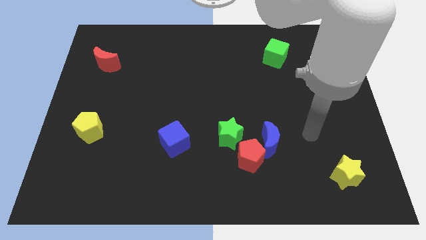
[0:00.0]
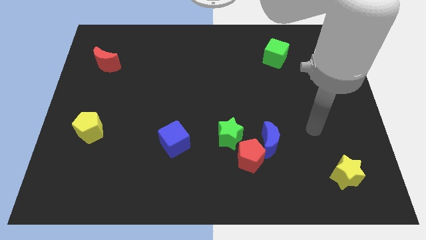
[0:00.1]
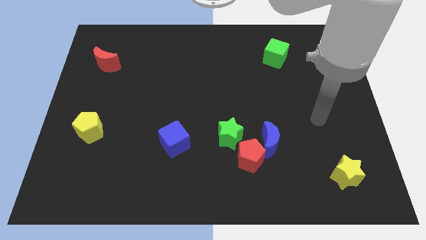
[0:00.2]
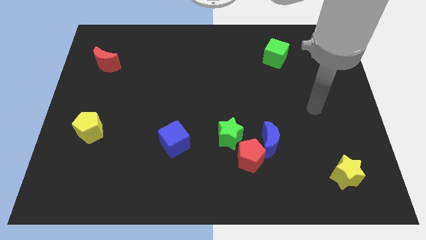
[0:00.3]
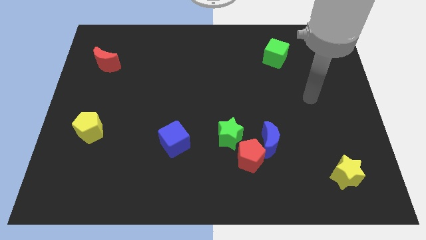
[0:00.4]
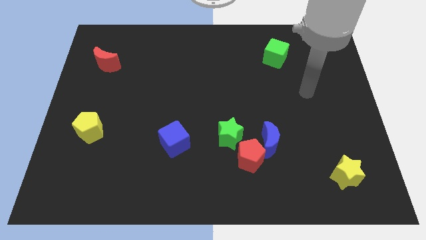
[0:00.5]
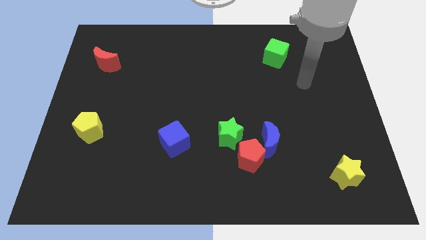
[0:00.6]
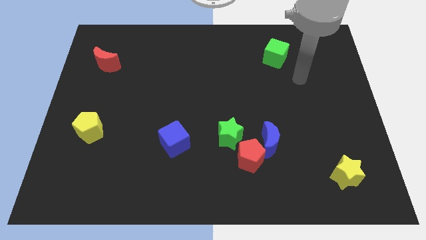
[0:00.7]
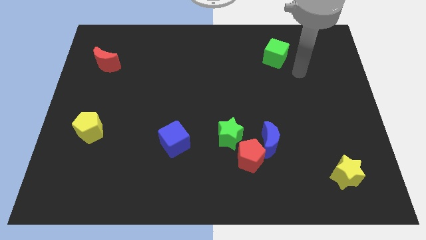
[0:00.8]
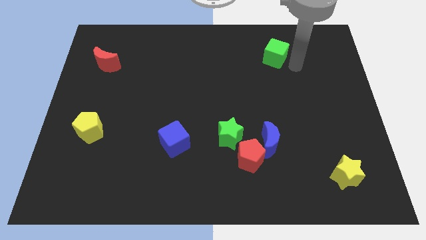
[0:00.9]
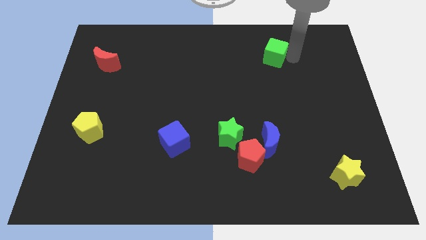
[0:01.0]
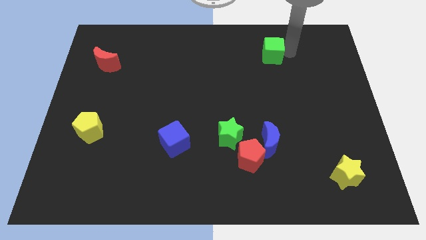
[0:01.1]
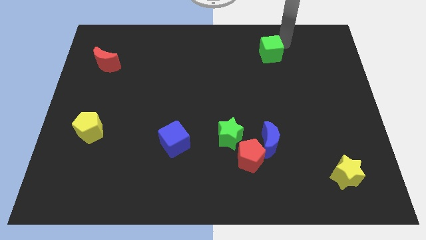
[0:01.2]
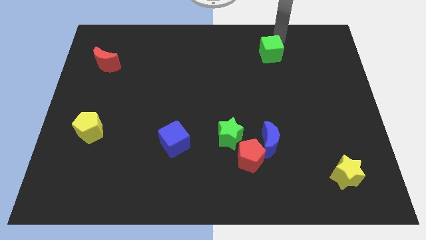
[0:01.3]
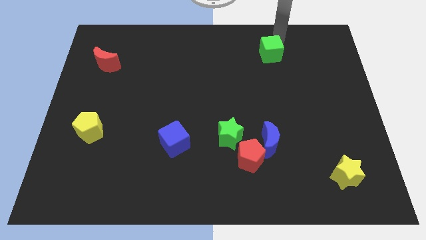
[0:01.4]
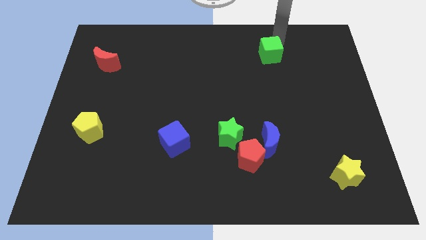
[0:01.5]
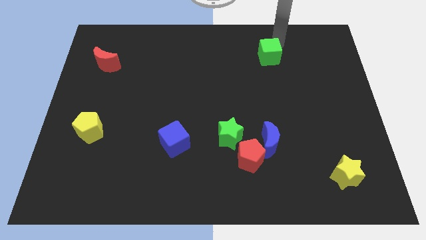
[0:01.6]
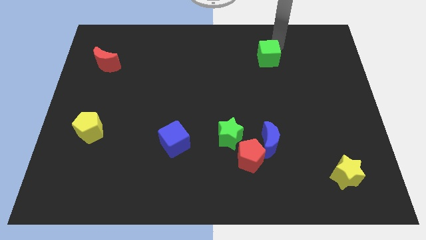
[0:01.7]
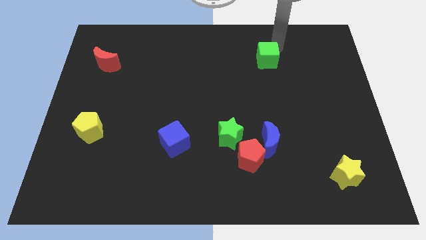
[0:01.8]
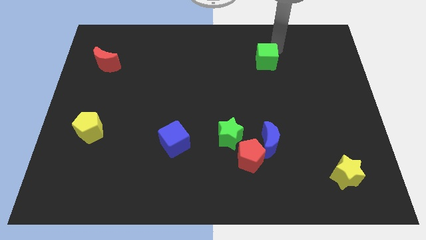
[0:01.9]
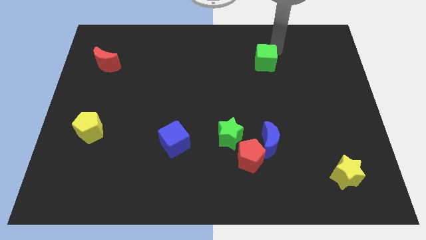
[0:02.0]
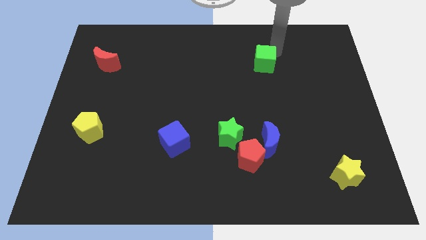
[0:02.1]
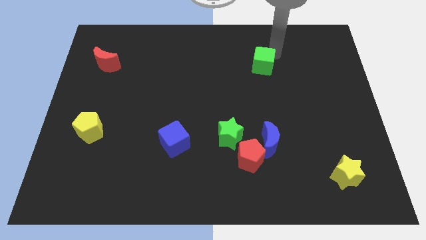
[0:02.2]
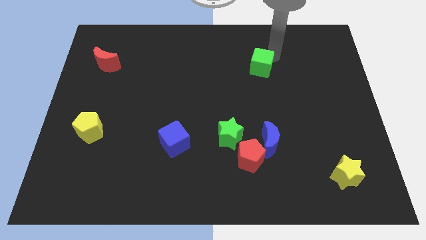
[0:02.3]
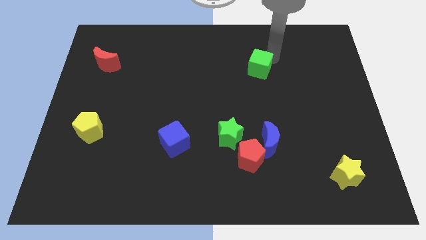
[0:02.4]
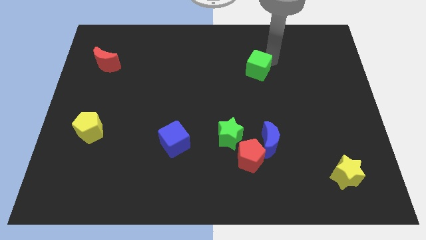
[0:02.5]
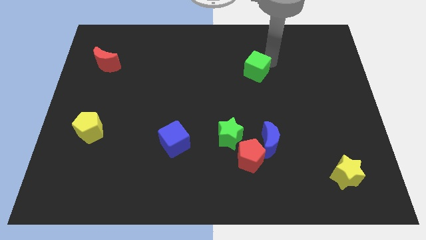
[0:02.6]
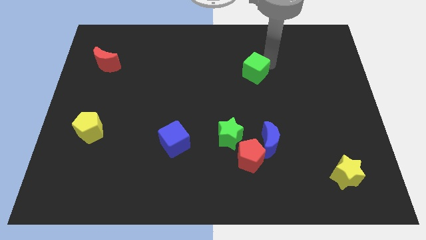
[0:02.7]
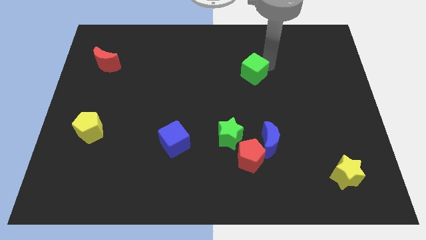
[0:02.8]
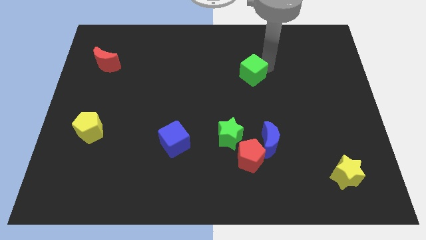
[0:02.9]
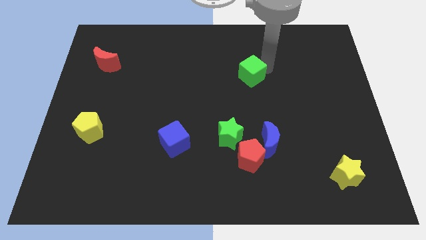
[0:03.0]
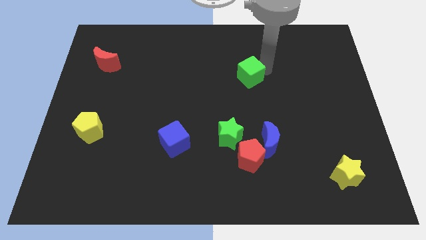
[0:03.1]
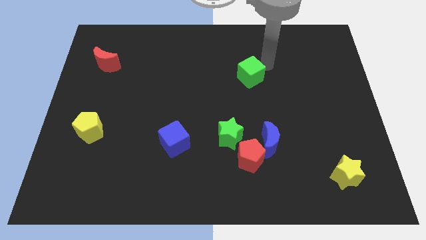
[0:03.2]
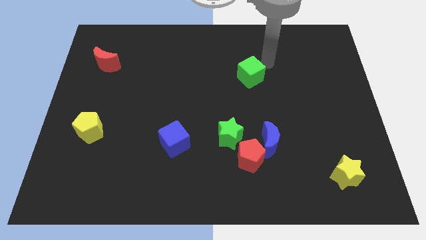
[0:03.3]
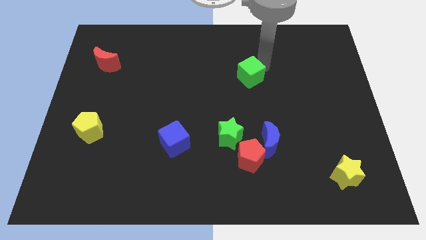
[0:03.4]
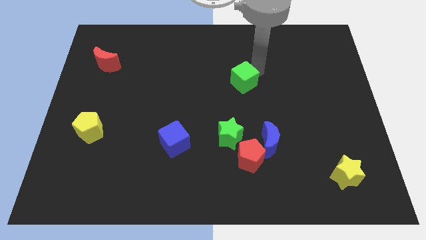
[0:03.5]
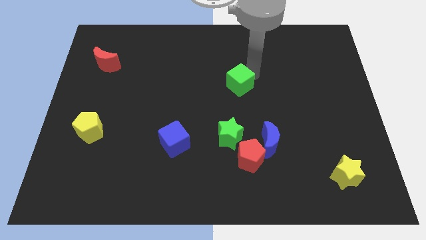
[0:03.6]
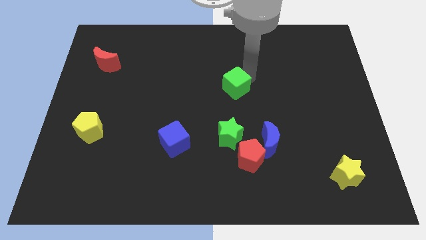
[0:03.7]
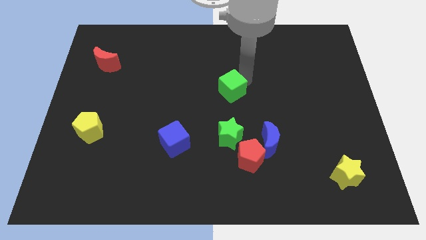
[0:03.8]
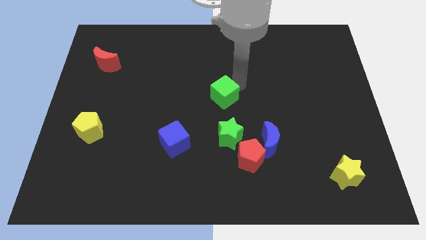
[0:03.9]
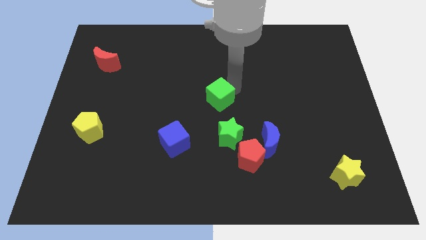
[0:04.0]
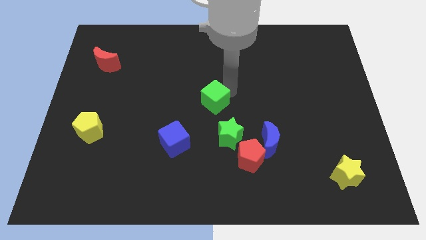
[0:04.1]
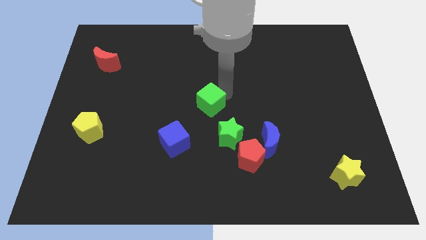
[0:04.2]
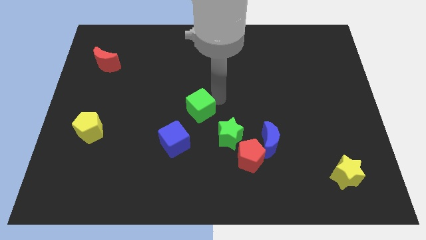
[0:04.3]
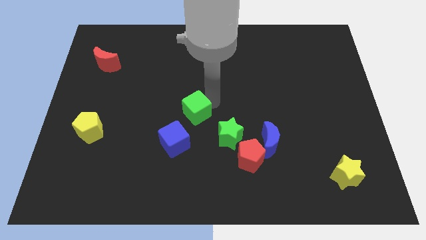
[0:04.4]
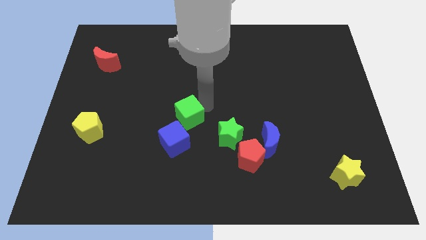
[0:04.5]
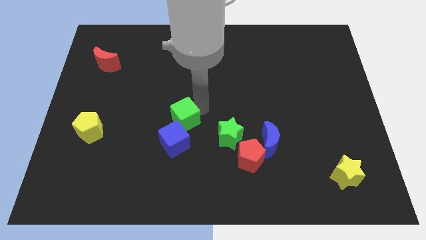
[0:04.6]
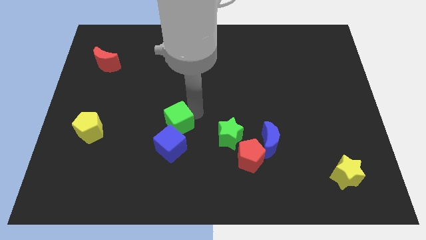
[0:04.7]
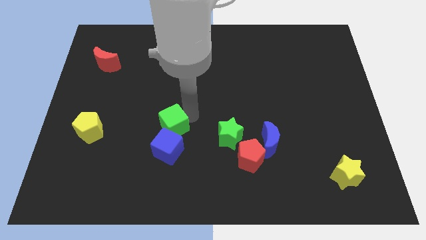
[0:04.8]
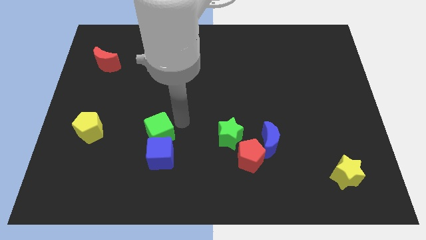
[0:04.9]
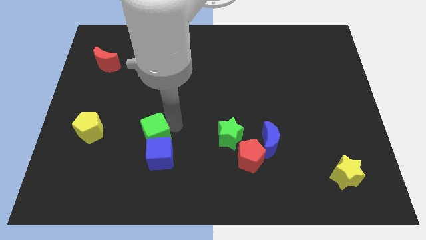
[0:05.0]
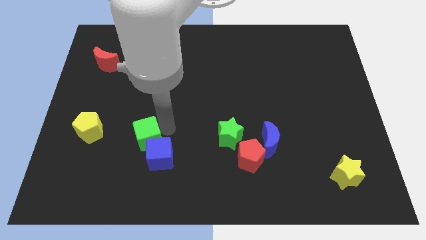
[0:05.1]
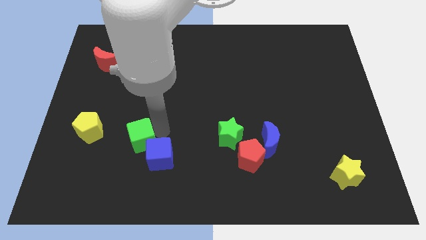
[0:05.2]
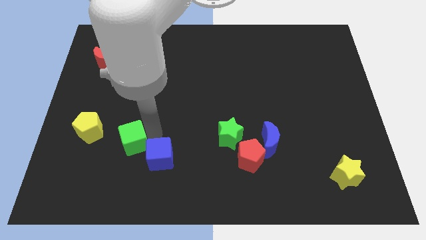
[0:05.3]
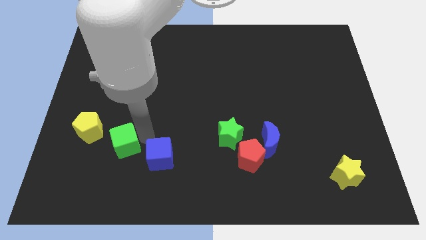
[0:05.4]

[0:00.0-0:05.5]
put the green cube diagonally down and to the right of the yellow pentagon

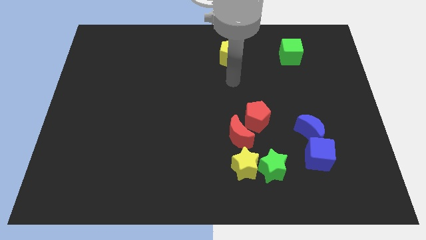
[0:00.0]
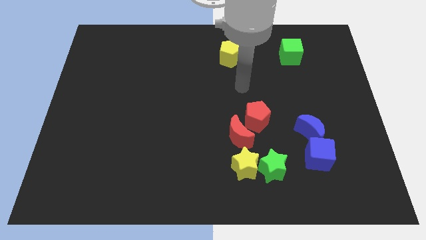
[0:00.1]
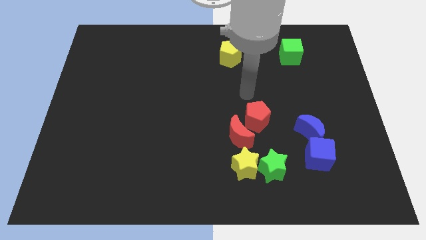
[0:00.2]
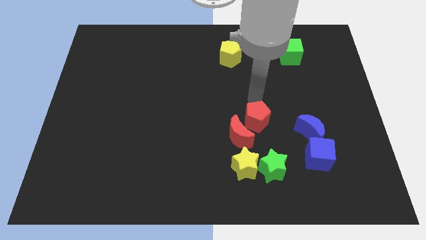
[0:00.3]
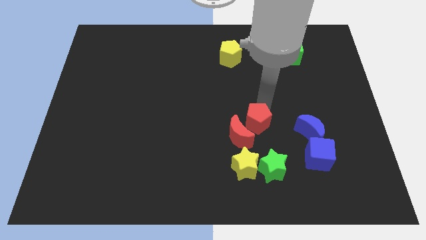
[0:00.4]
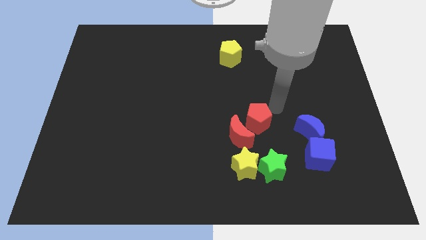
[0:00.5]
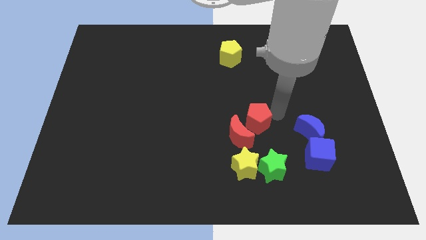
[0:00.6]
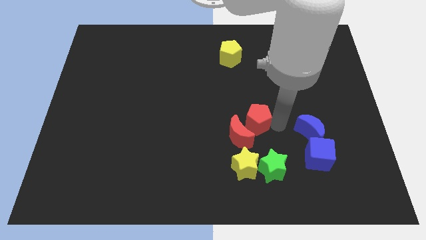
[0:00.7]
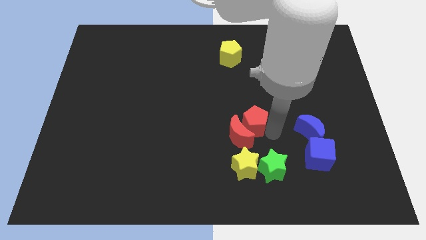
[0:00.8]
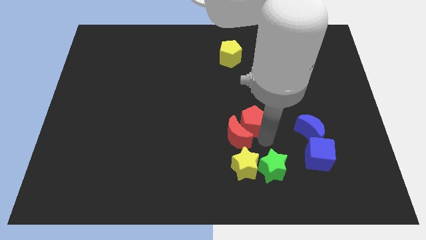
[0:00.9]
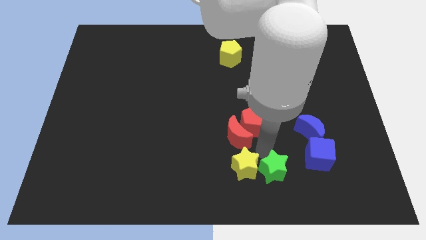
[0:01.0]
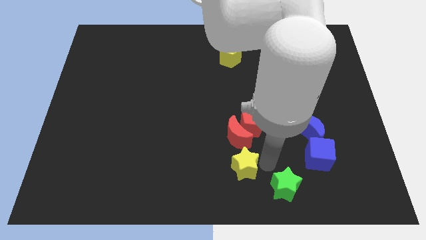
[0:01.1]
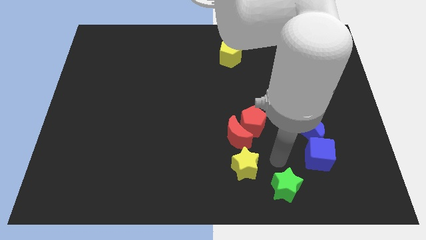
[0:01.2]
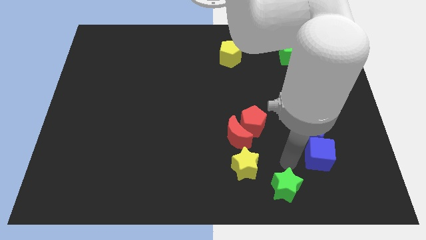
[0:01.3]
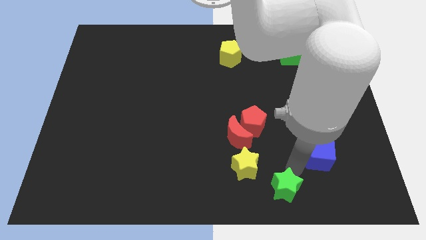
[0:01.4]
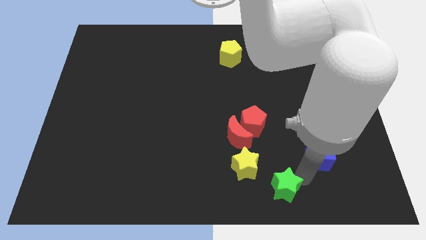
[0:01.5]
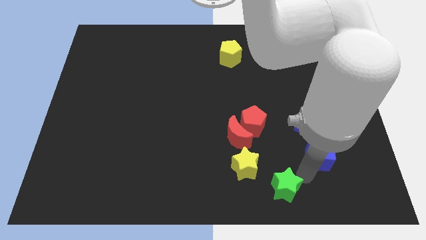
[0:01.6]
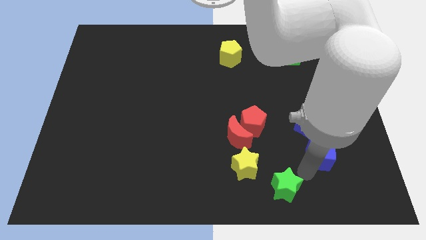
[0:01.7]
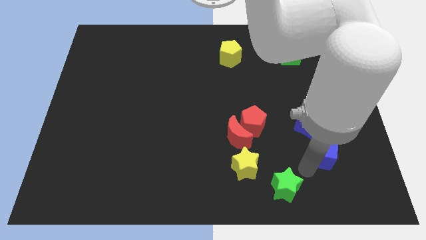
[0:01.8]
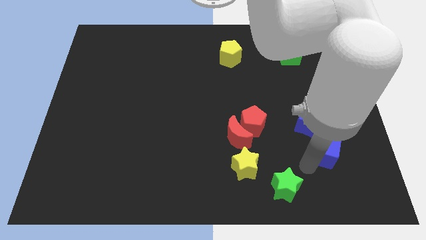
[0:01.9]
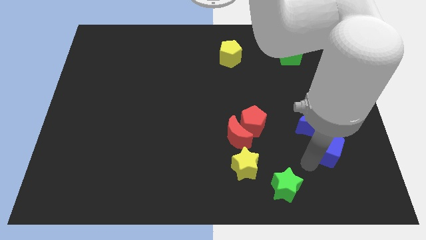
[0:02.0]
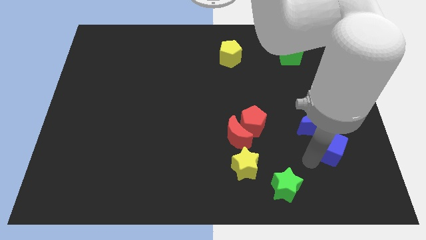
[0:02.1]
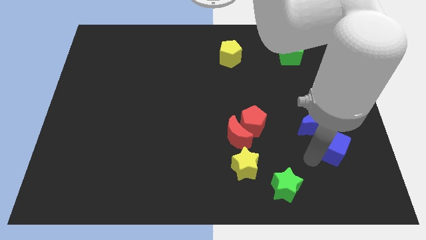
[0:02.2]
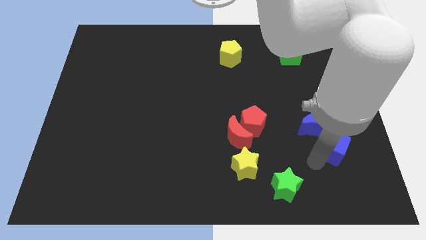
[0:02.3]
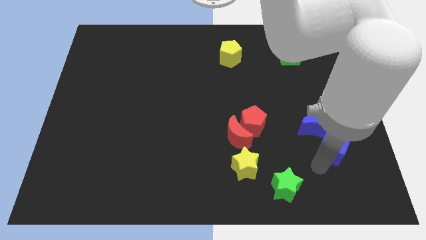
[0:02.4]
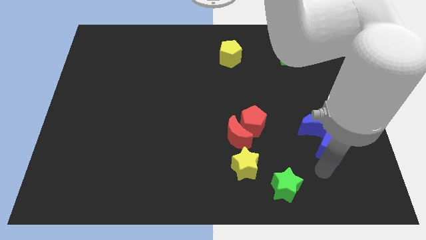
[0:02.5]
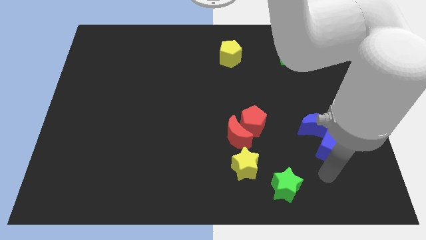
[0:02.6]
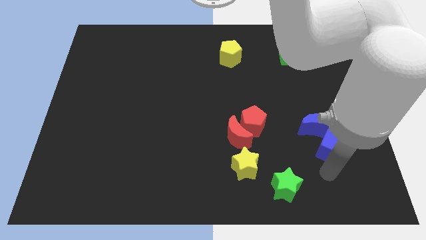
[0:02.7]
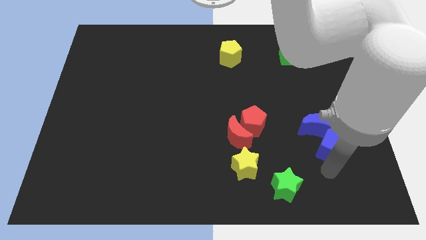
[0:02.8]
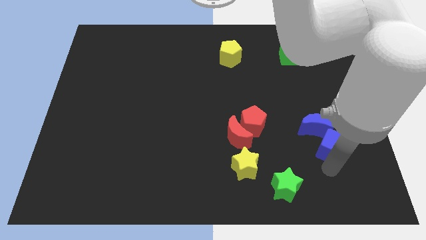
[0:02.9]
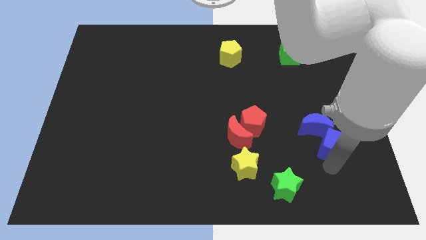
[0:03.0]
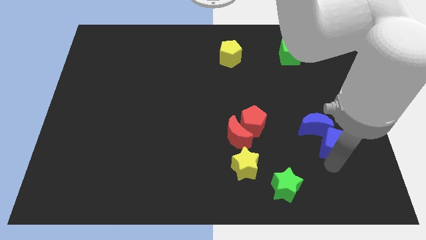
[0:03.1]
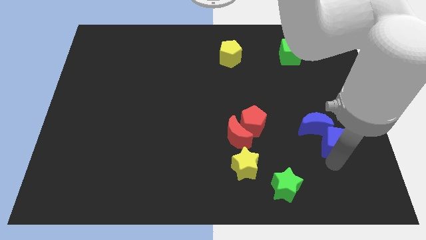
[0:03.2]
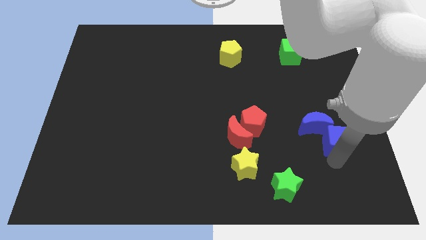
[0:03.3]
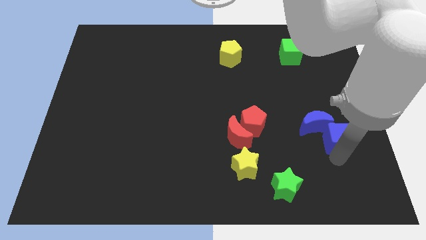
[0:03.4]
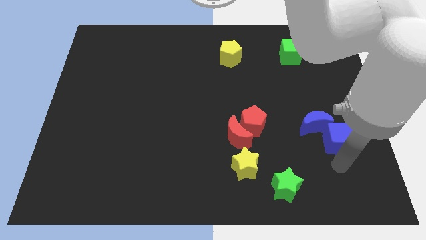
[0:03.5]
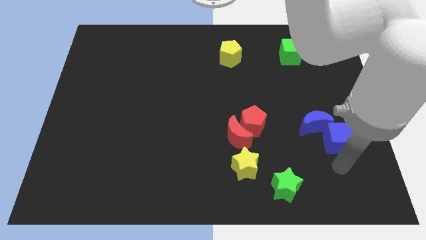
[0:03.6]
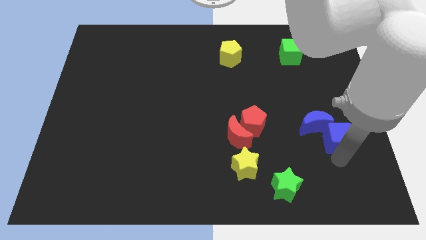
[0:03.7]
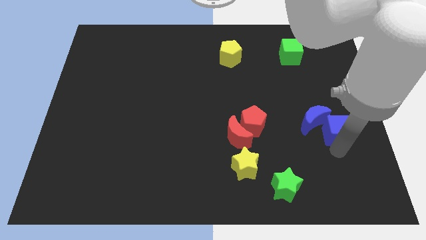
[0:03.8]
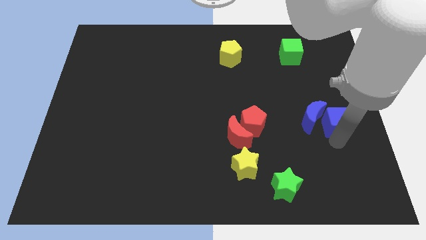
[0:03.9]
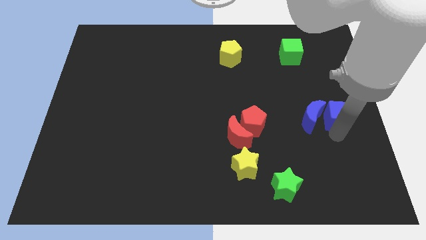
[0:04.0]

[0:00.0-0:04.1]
put the blue cube diagonally up and to the right of the blue moon
